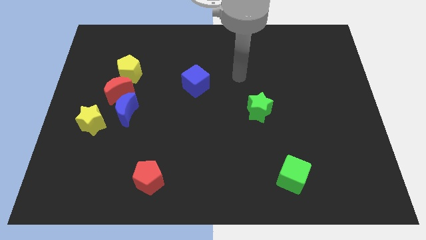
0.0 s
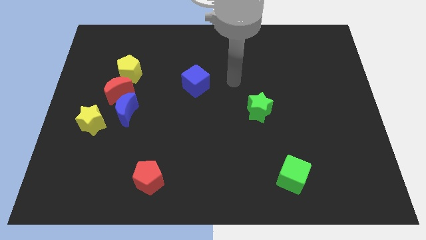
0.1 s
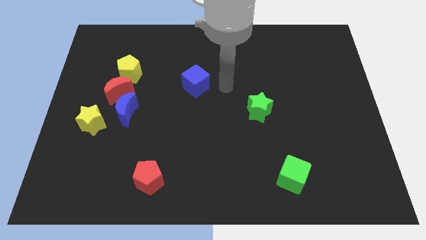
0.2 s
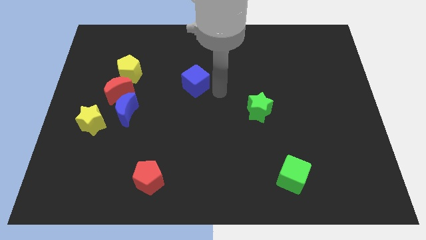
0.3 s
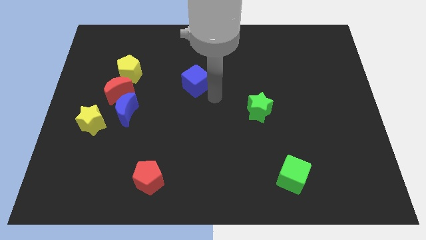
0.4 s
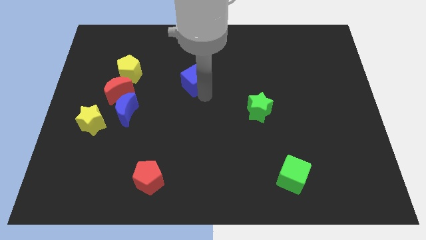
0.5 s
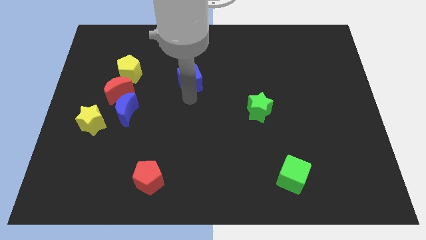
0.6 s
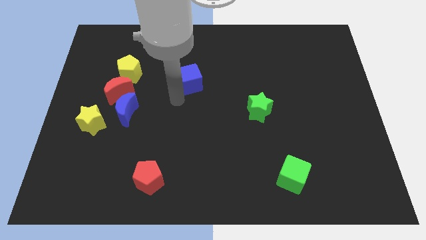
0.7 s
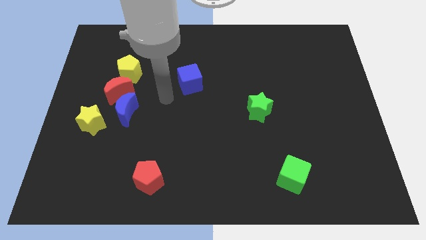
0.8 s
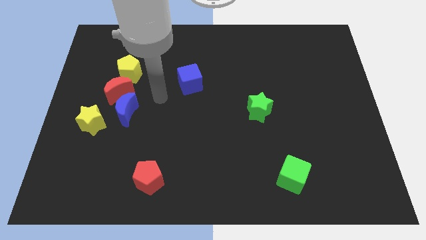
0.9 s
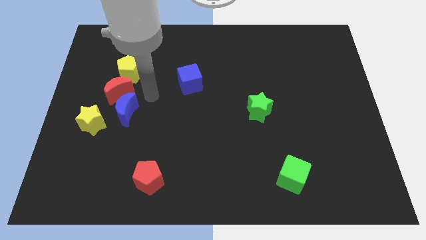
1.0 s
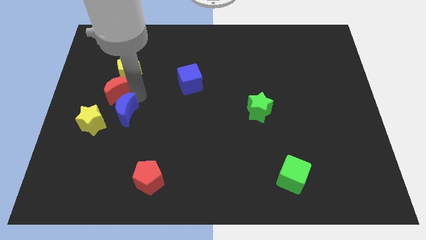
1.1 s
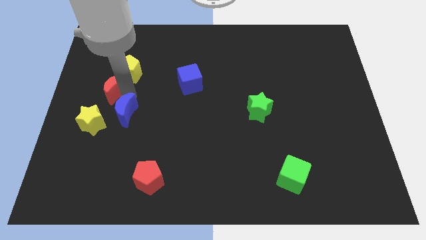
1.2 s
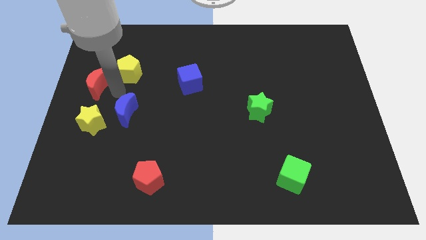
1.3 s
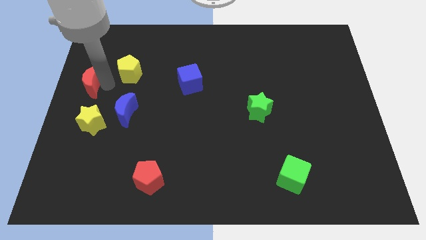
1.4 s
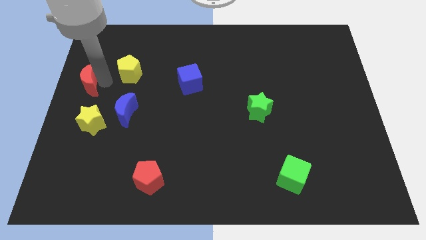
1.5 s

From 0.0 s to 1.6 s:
move the yellow pentagon away from the red moon

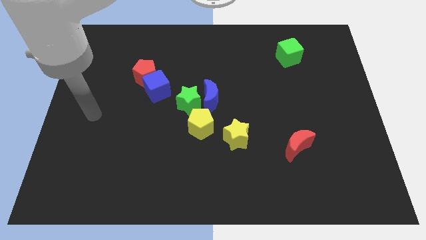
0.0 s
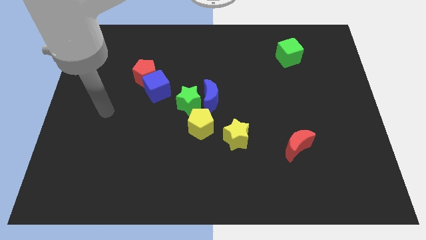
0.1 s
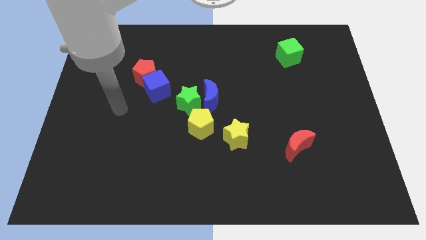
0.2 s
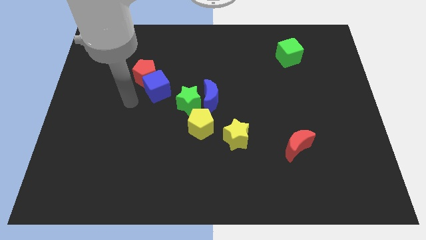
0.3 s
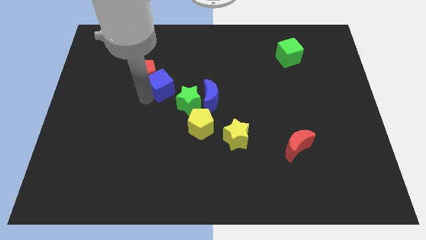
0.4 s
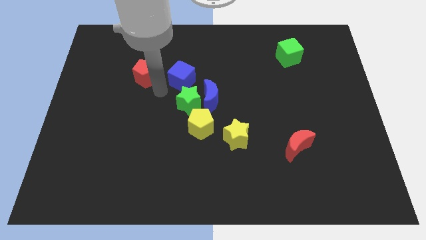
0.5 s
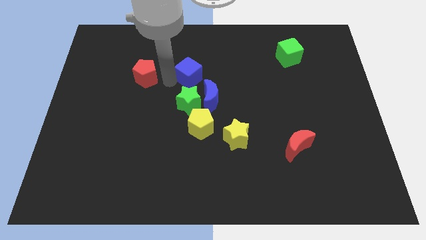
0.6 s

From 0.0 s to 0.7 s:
pull the red pentagon apart from the blue cube

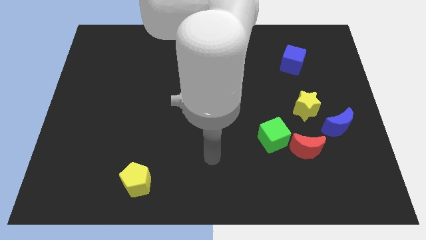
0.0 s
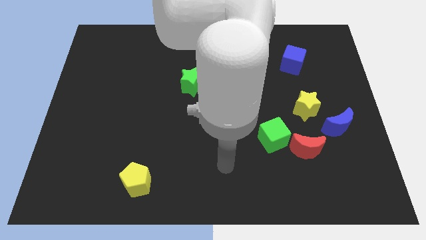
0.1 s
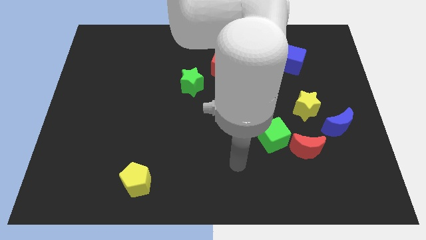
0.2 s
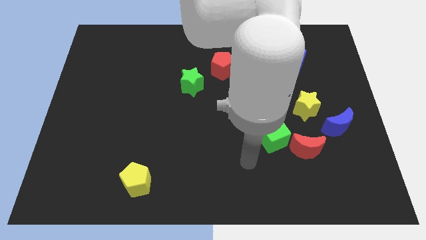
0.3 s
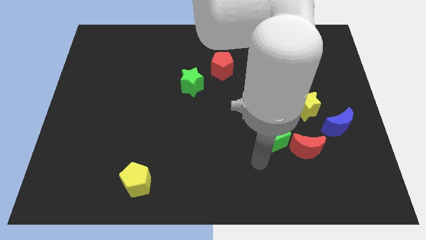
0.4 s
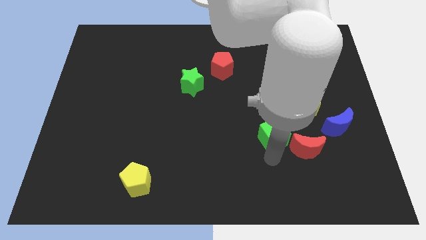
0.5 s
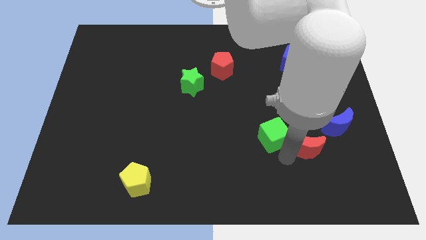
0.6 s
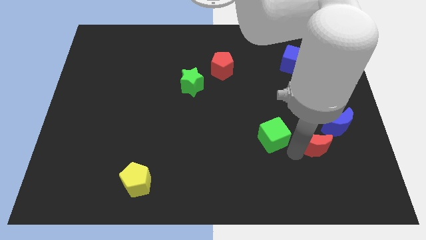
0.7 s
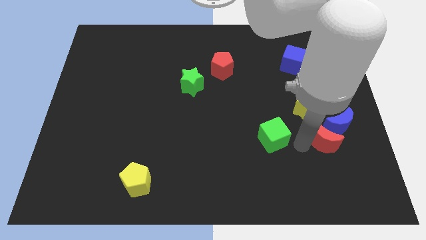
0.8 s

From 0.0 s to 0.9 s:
move the green cube away from the red moon

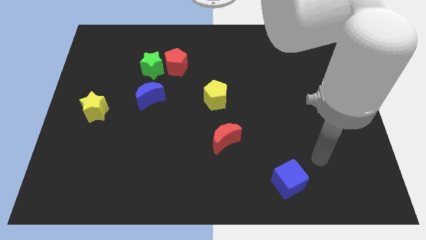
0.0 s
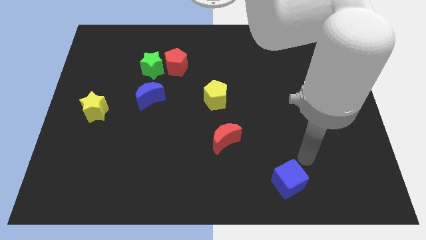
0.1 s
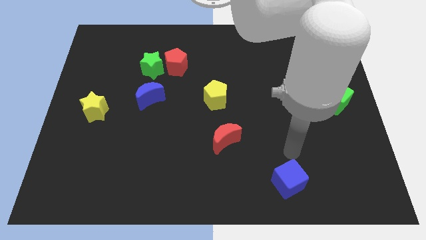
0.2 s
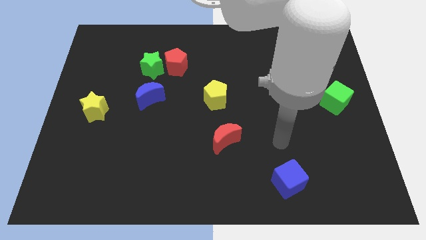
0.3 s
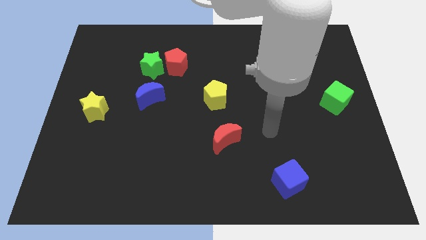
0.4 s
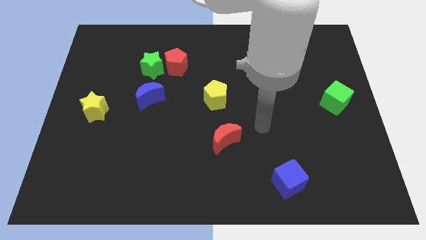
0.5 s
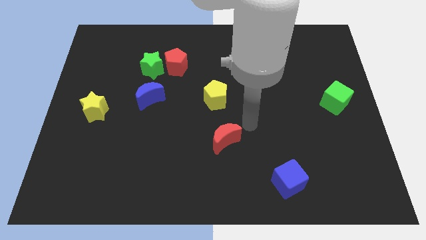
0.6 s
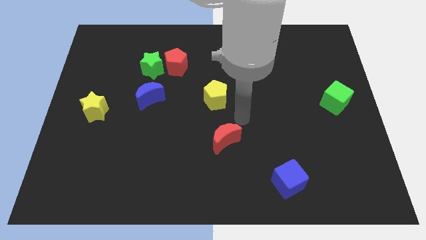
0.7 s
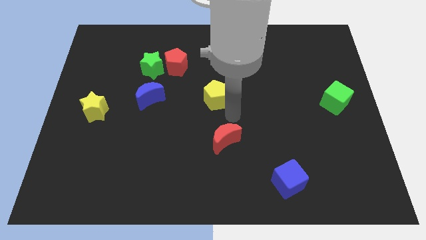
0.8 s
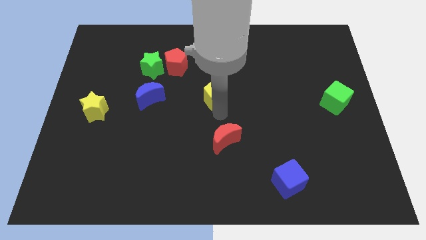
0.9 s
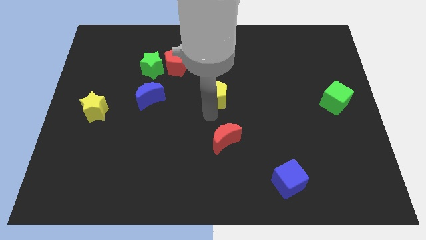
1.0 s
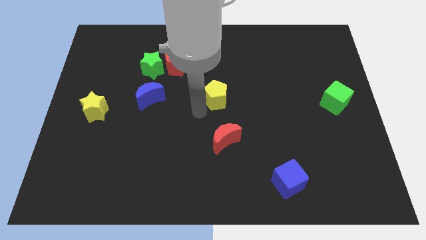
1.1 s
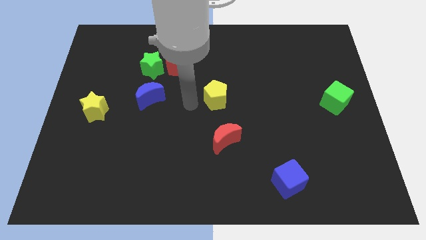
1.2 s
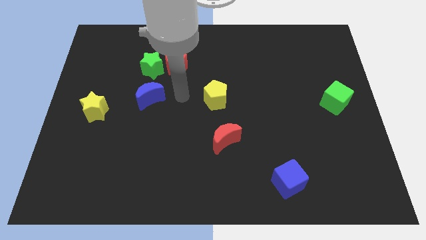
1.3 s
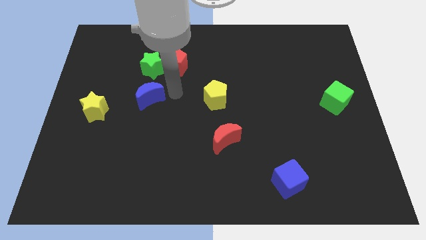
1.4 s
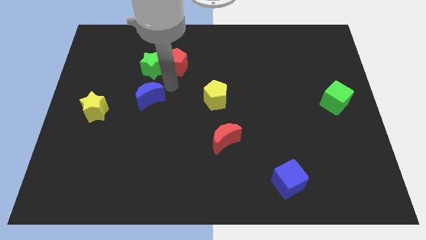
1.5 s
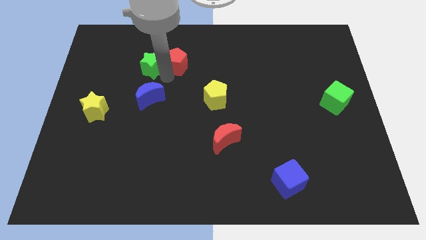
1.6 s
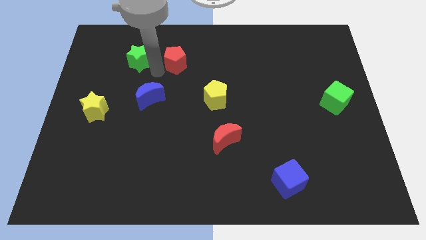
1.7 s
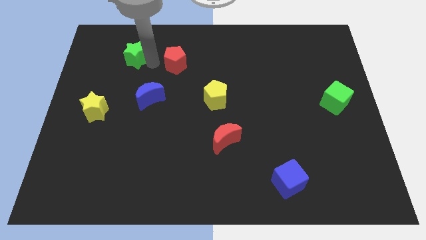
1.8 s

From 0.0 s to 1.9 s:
separate the red pentagon from the green star

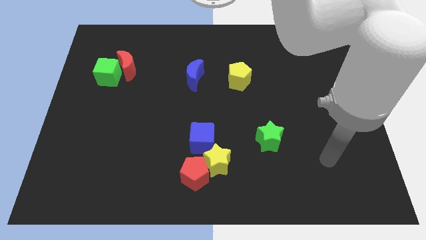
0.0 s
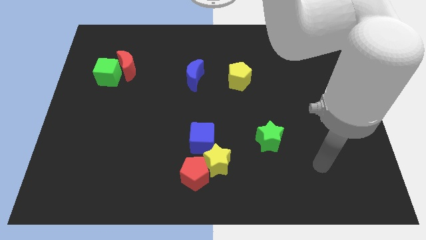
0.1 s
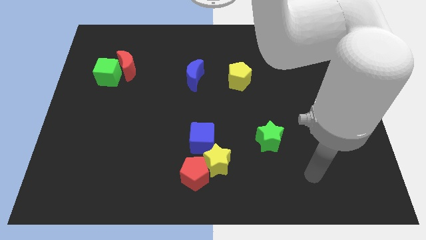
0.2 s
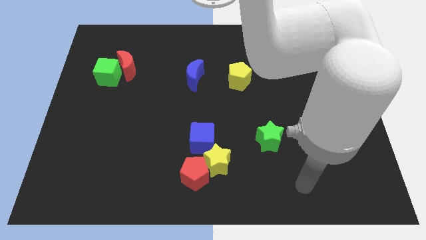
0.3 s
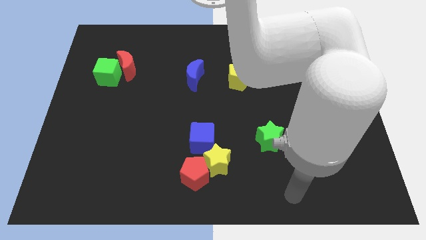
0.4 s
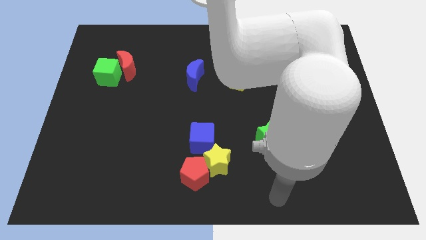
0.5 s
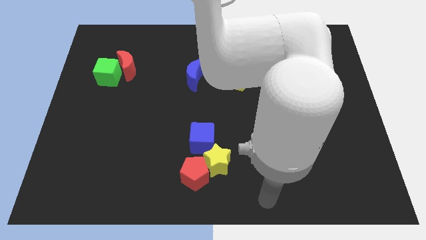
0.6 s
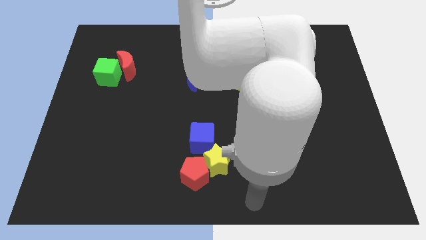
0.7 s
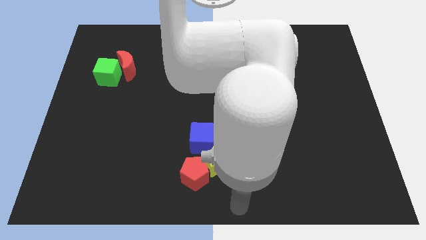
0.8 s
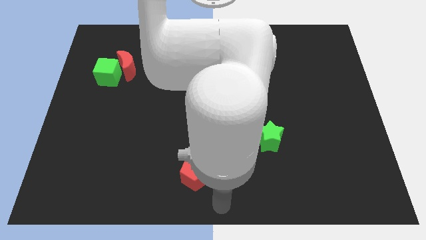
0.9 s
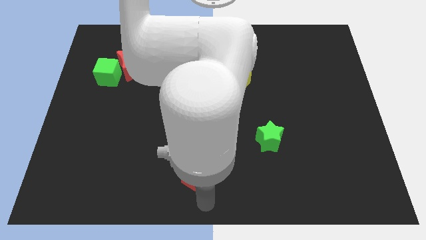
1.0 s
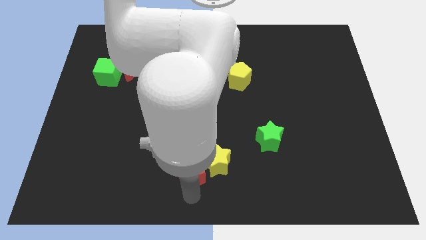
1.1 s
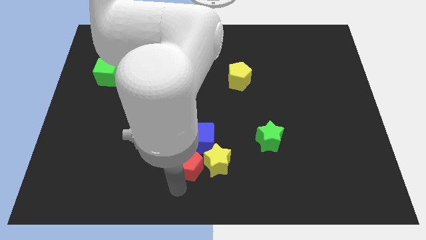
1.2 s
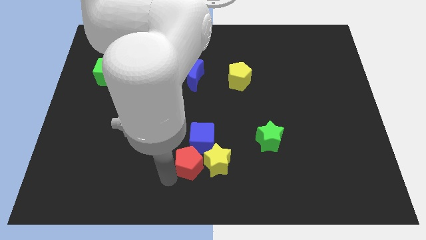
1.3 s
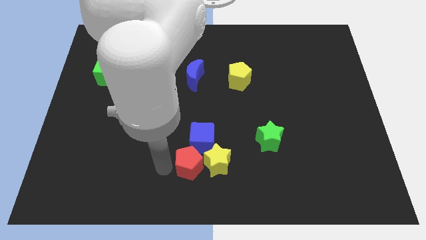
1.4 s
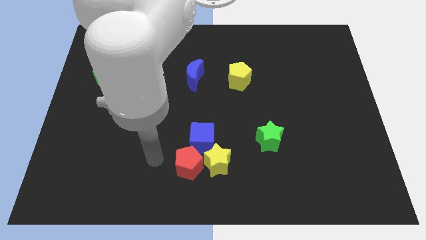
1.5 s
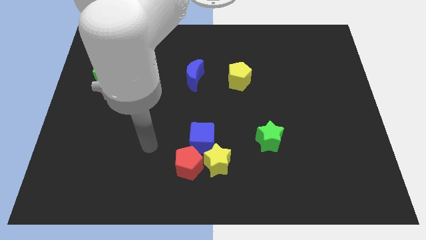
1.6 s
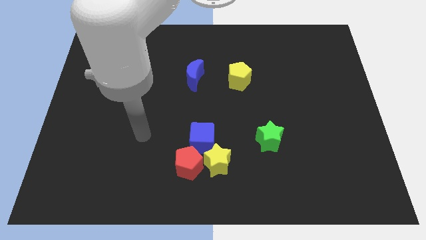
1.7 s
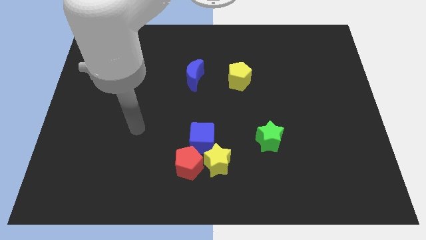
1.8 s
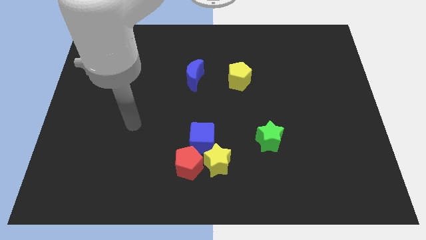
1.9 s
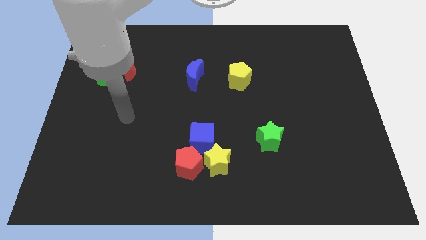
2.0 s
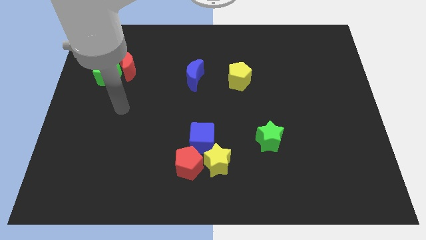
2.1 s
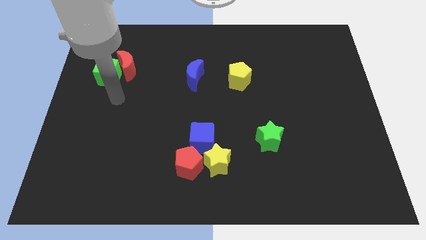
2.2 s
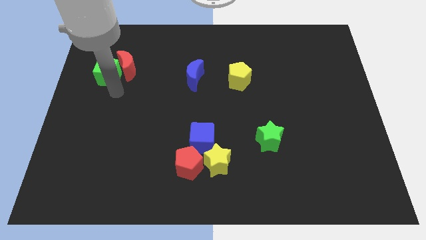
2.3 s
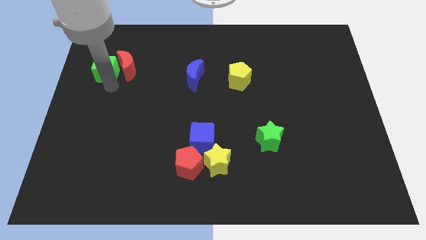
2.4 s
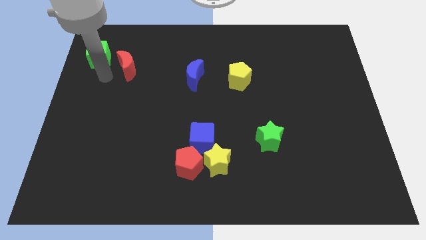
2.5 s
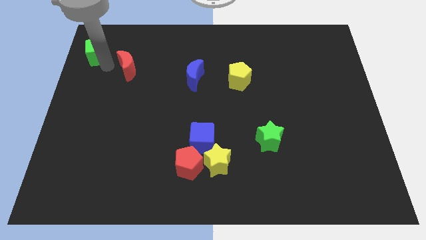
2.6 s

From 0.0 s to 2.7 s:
move the red moon away from the green cube

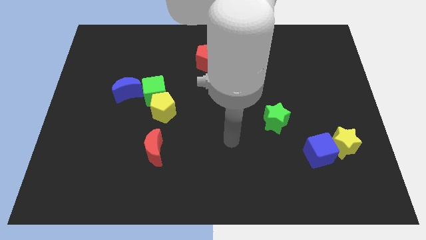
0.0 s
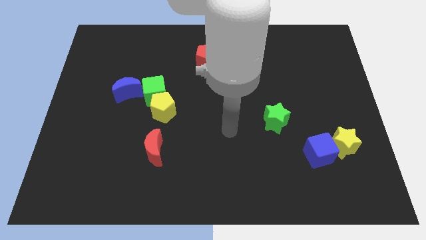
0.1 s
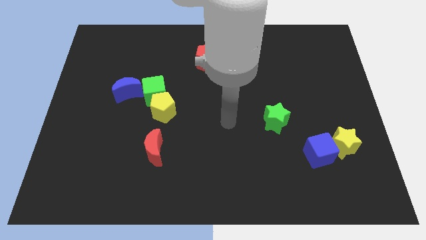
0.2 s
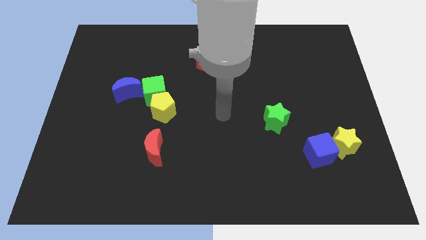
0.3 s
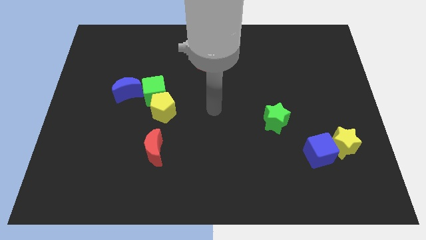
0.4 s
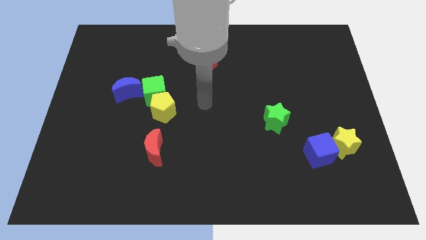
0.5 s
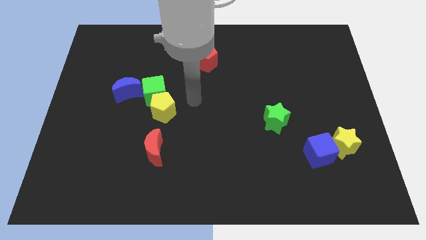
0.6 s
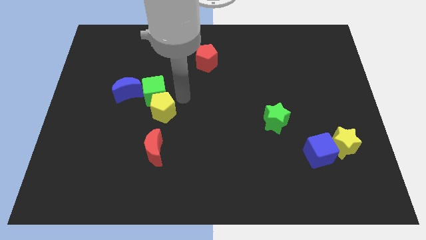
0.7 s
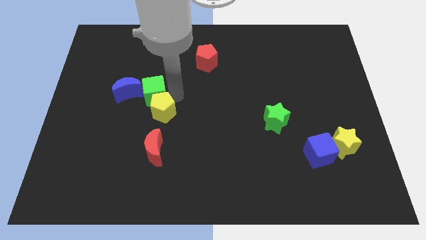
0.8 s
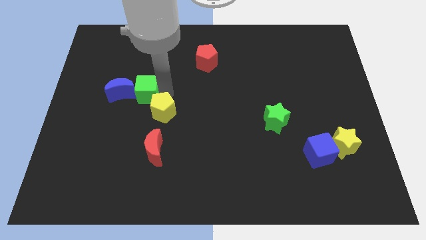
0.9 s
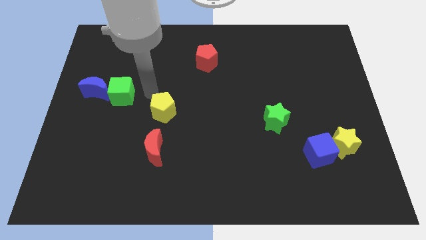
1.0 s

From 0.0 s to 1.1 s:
move the yellow pentagon away from the green cube

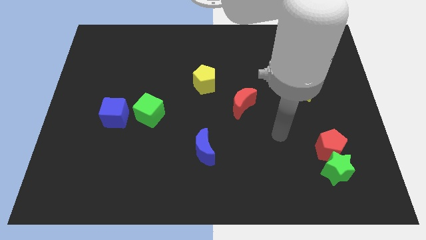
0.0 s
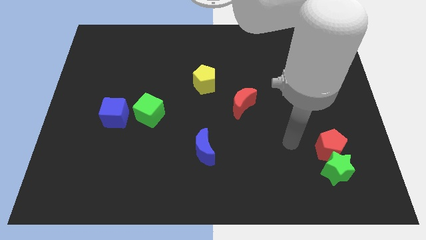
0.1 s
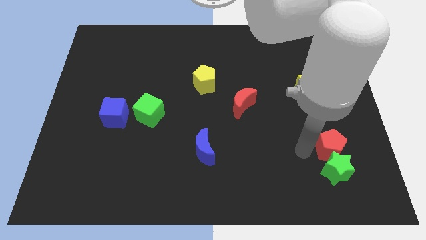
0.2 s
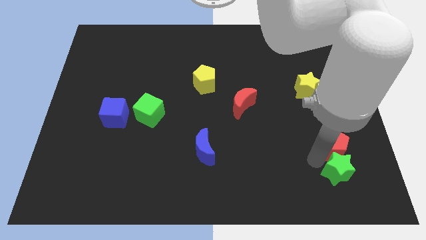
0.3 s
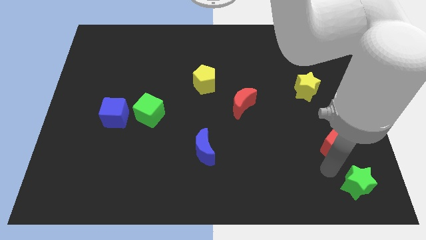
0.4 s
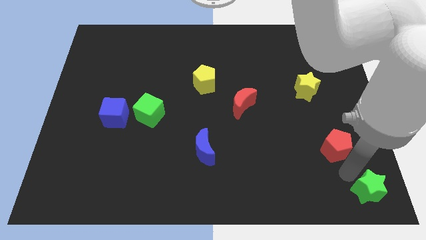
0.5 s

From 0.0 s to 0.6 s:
move the red pentagon away from the green star
